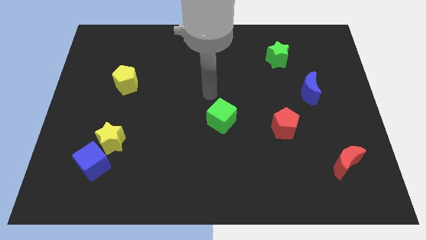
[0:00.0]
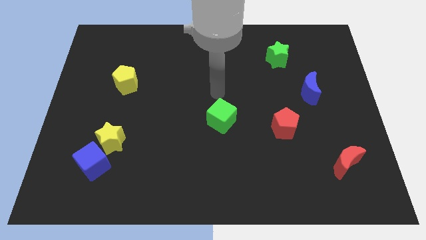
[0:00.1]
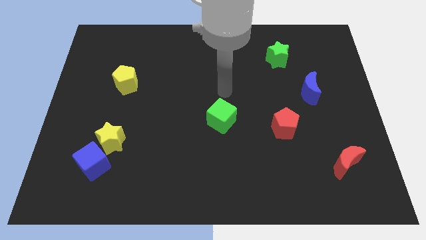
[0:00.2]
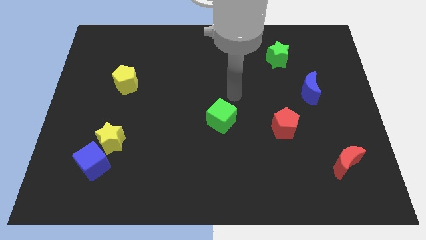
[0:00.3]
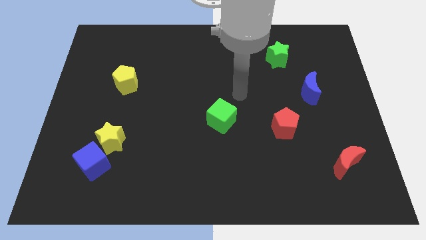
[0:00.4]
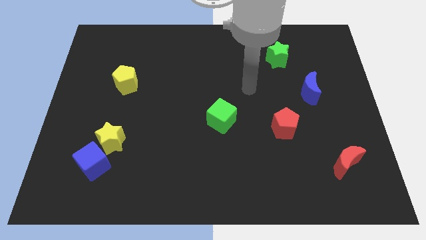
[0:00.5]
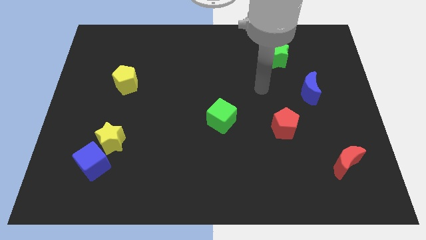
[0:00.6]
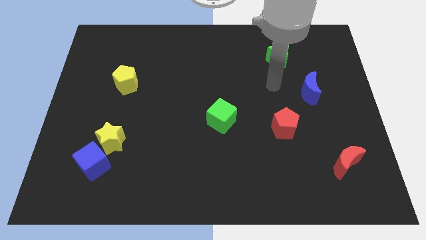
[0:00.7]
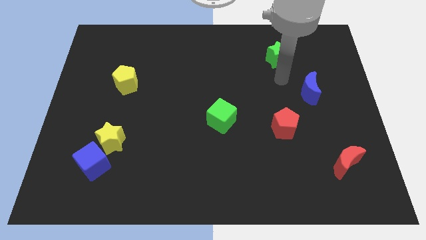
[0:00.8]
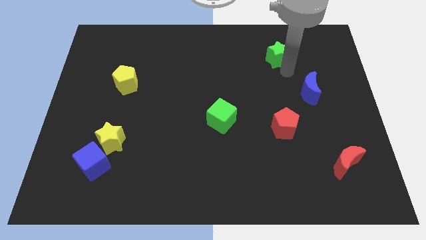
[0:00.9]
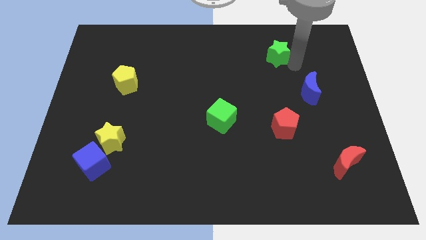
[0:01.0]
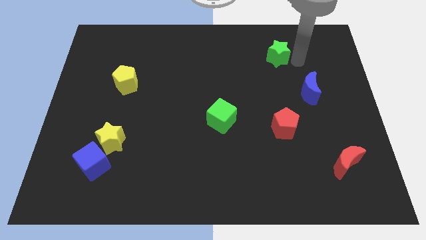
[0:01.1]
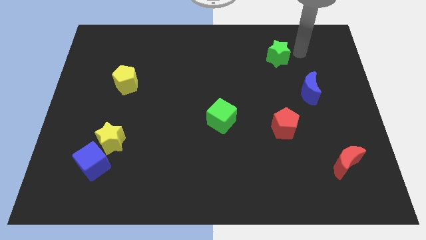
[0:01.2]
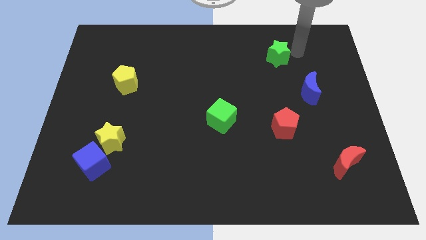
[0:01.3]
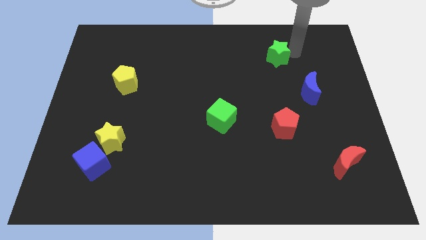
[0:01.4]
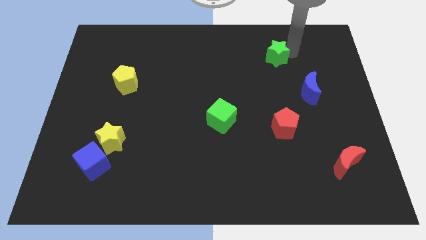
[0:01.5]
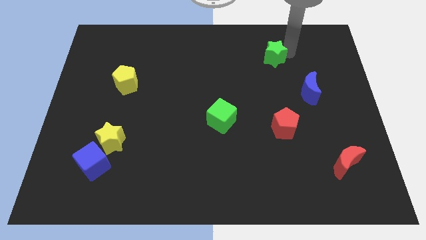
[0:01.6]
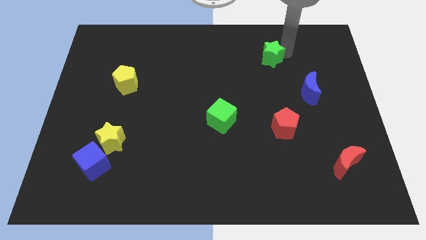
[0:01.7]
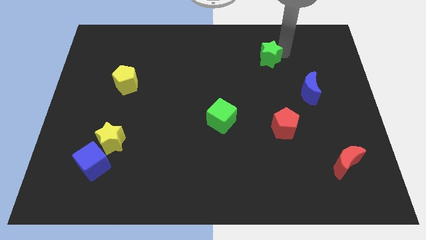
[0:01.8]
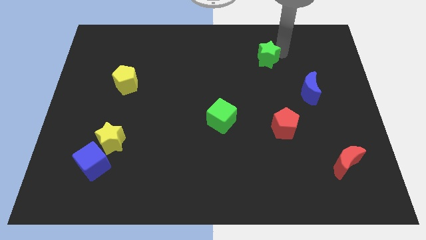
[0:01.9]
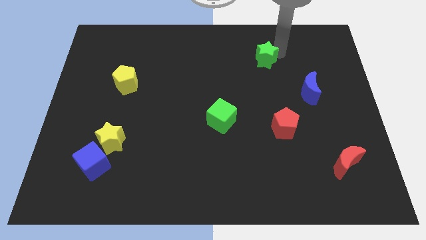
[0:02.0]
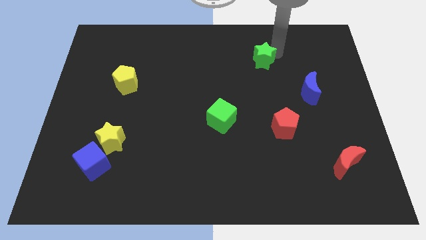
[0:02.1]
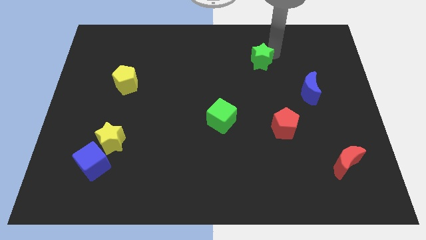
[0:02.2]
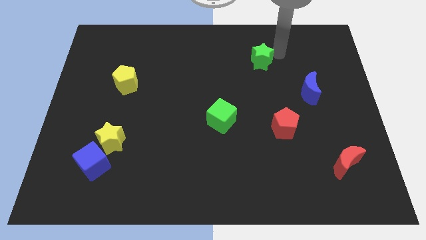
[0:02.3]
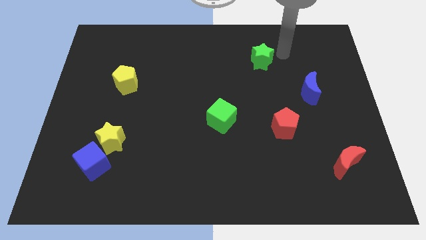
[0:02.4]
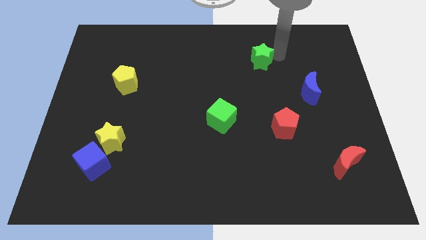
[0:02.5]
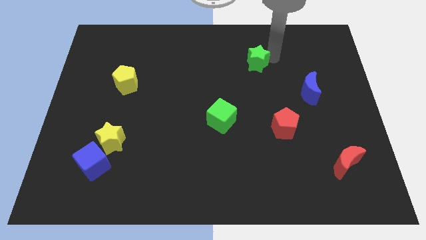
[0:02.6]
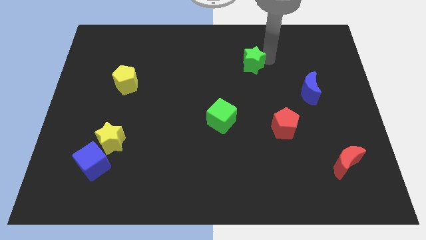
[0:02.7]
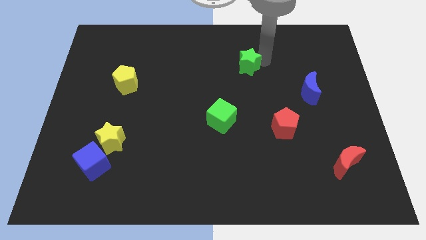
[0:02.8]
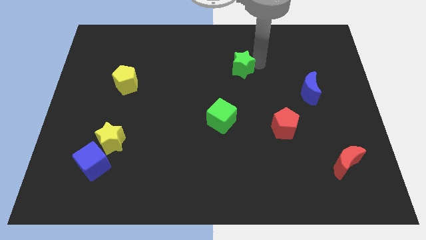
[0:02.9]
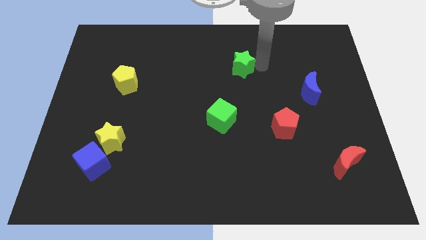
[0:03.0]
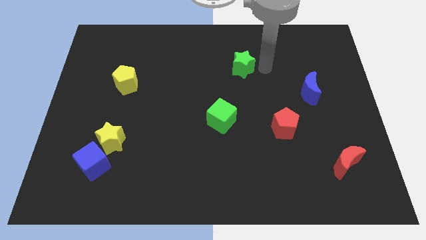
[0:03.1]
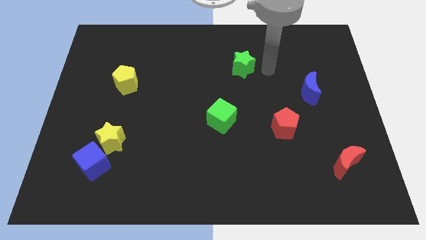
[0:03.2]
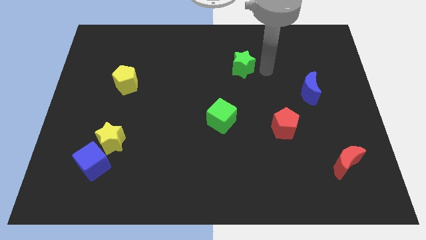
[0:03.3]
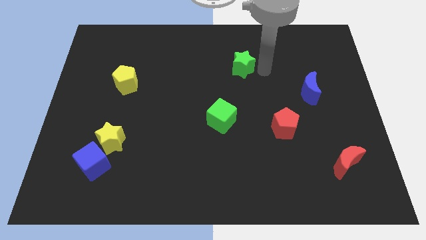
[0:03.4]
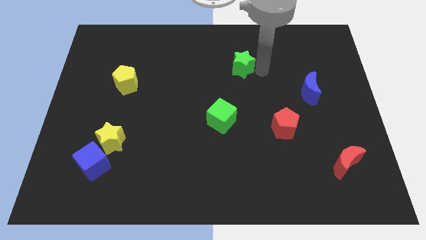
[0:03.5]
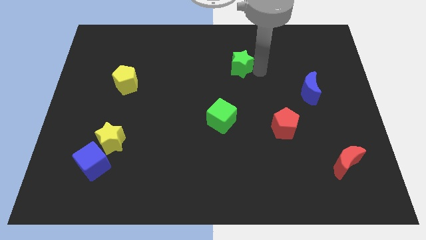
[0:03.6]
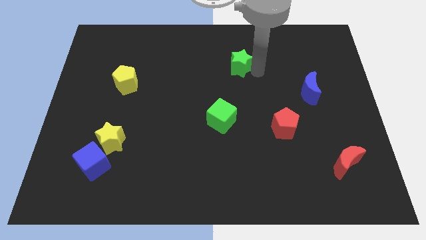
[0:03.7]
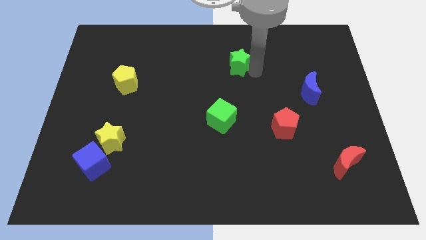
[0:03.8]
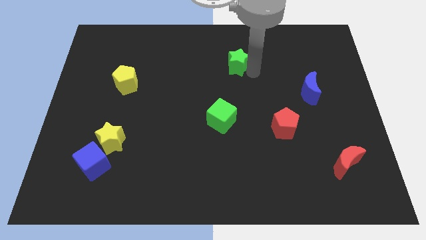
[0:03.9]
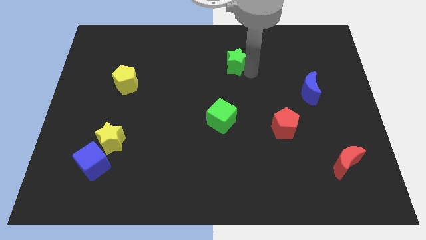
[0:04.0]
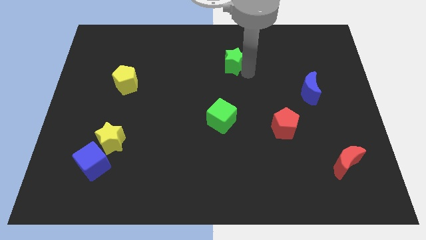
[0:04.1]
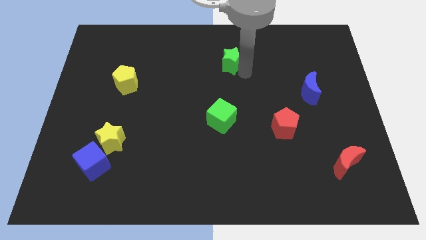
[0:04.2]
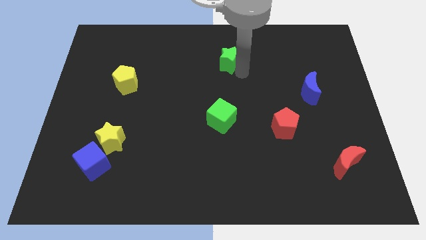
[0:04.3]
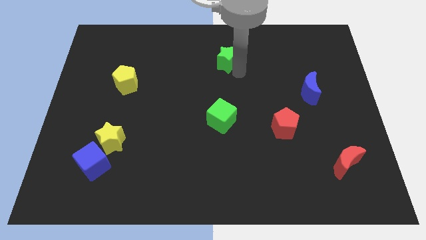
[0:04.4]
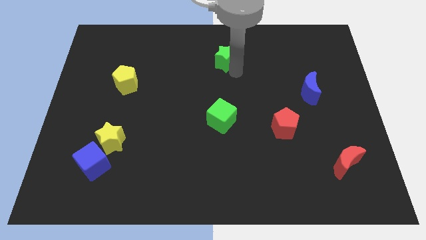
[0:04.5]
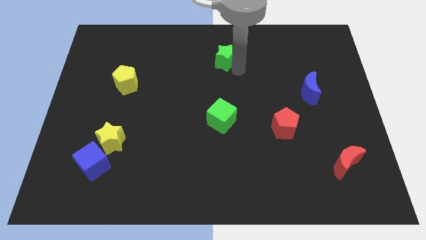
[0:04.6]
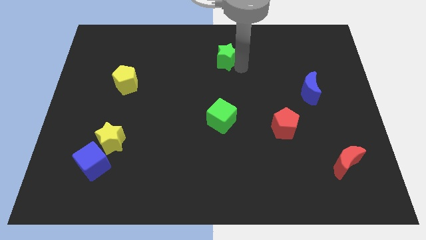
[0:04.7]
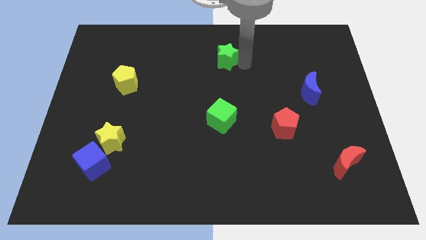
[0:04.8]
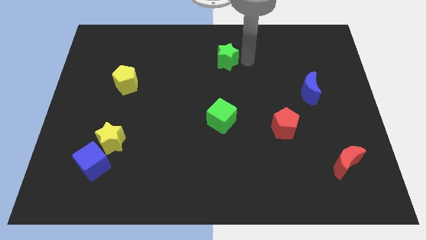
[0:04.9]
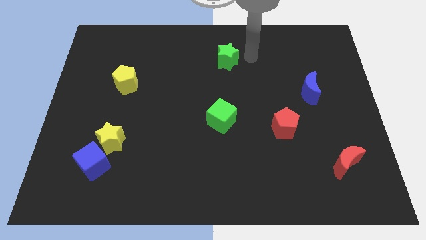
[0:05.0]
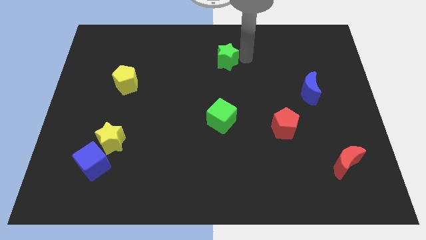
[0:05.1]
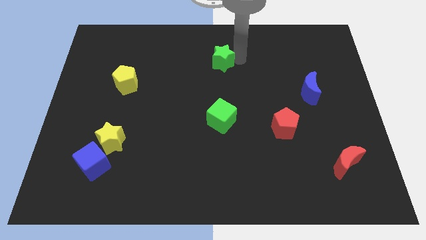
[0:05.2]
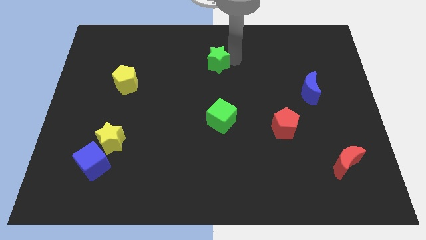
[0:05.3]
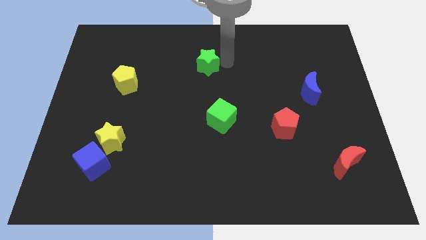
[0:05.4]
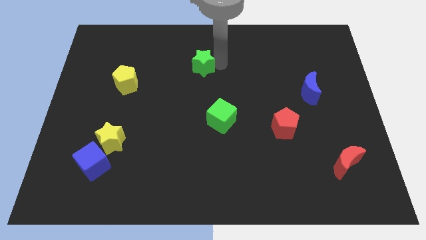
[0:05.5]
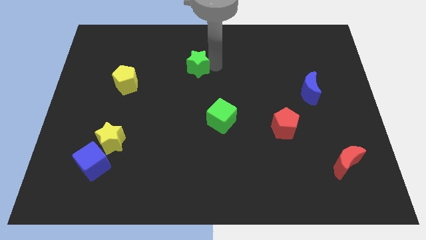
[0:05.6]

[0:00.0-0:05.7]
push the green star to the left

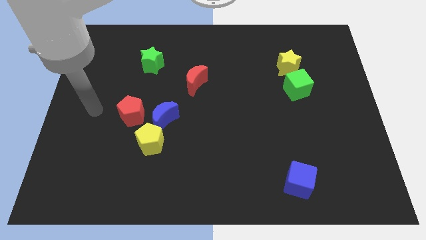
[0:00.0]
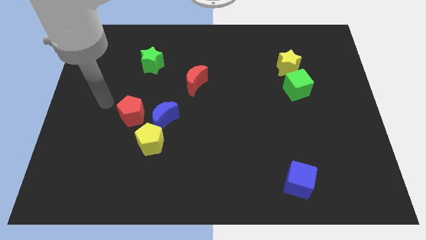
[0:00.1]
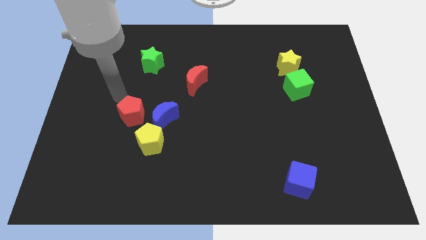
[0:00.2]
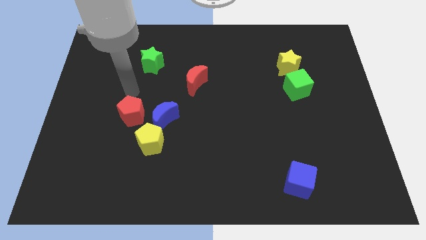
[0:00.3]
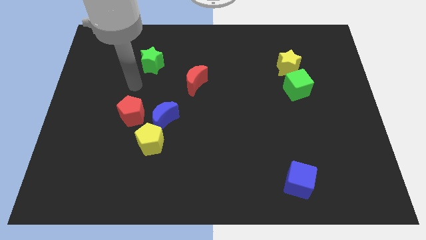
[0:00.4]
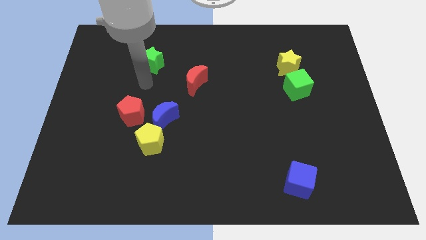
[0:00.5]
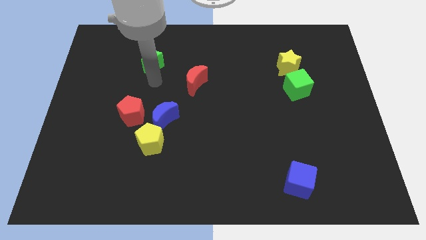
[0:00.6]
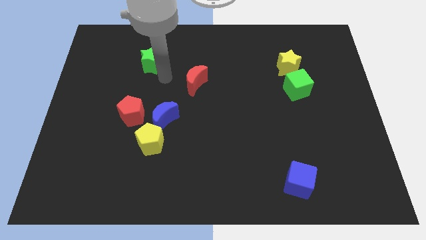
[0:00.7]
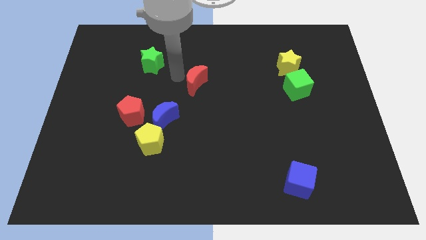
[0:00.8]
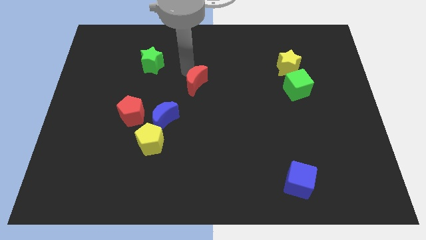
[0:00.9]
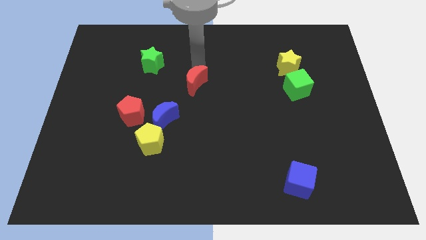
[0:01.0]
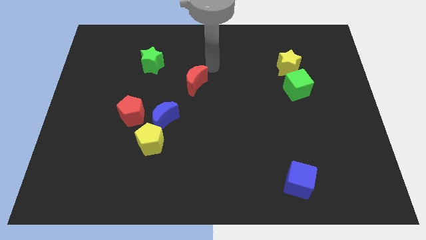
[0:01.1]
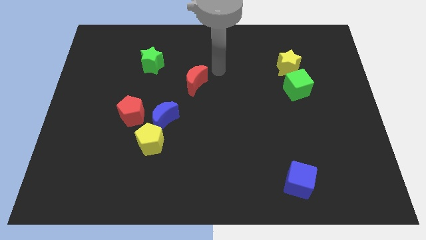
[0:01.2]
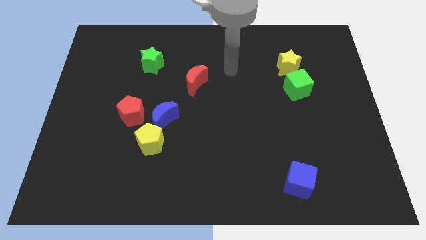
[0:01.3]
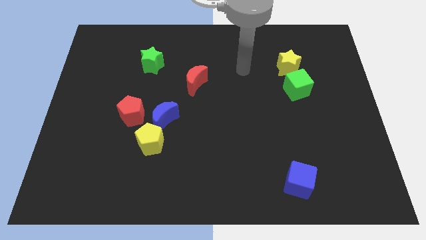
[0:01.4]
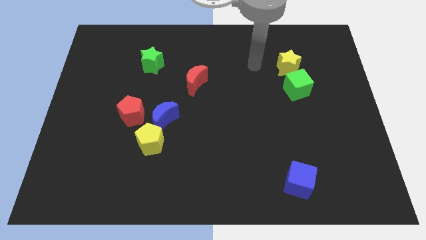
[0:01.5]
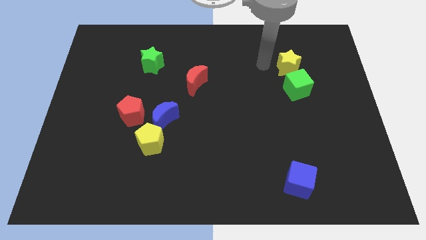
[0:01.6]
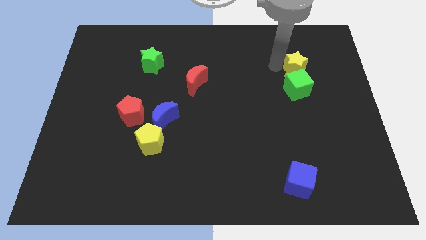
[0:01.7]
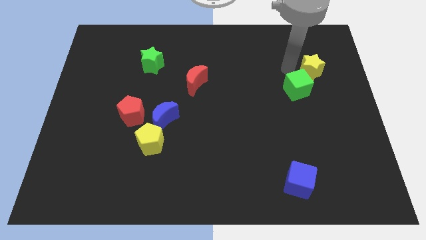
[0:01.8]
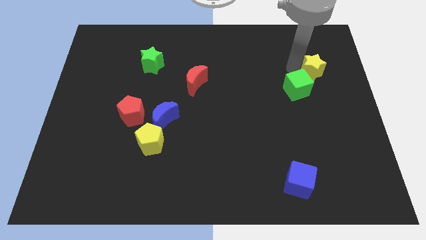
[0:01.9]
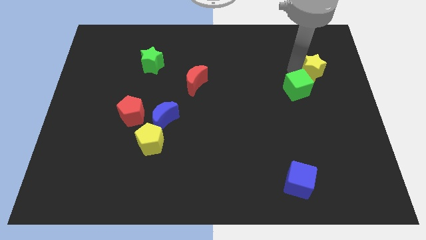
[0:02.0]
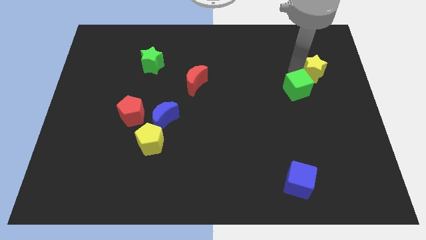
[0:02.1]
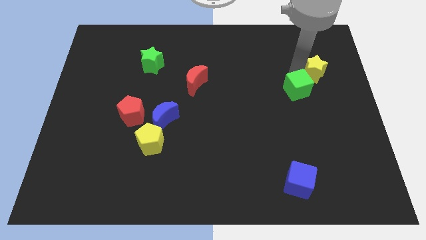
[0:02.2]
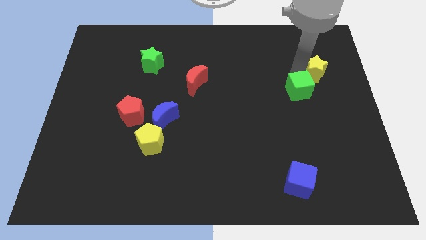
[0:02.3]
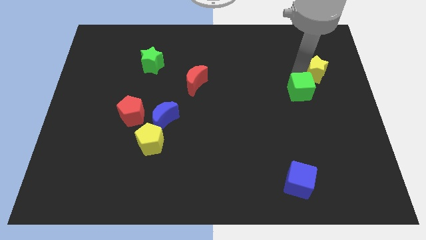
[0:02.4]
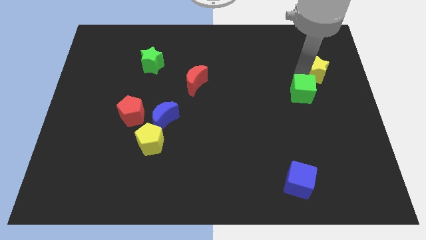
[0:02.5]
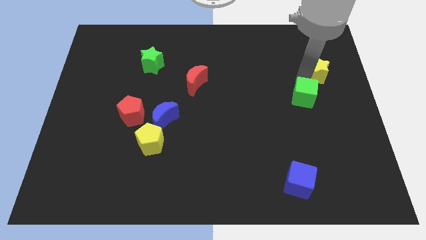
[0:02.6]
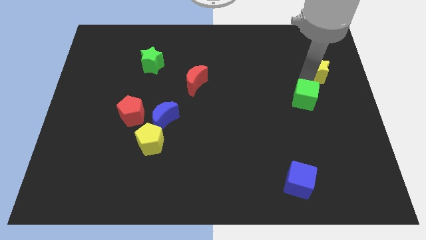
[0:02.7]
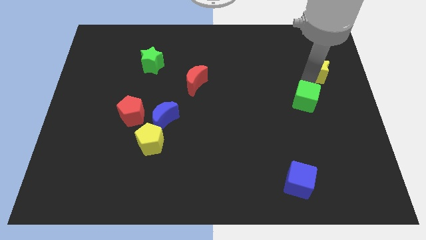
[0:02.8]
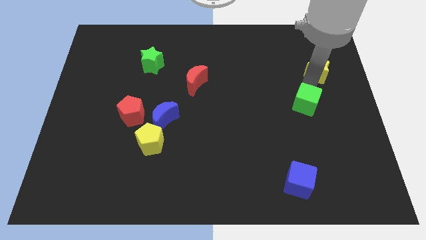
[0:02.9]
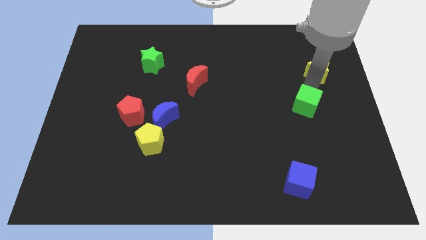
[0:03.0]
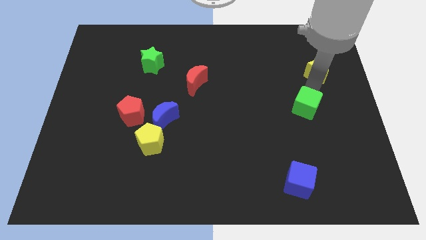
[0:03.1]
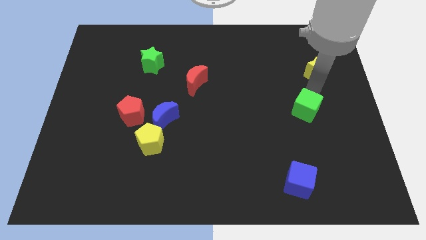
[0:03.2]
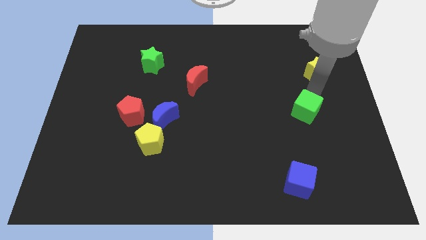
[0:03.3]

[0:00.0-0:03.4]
slightly move the green cube down
